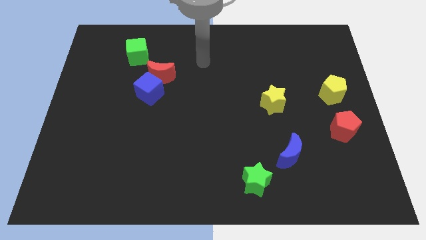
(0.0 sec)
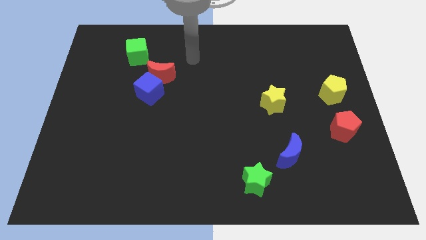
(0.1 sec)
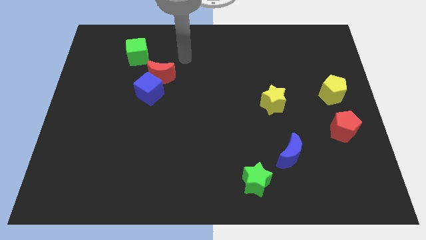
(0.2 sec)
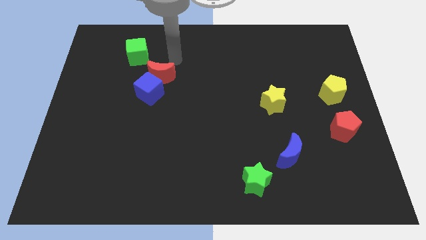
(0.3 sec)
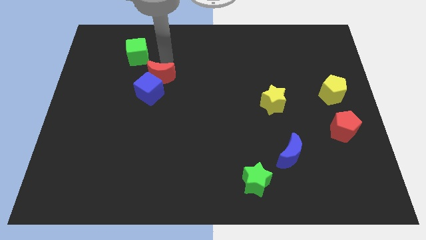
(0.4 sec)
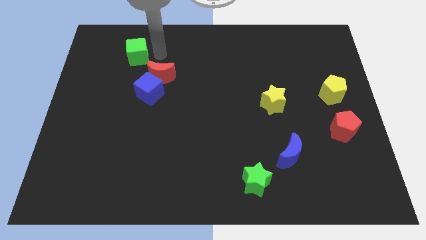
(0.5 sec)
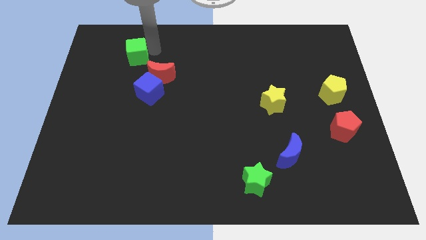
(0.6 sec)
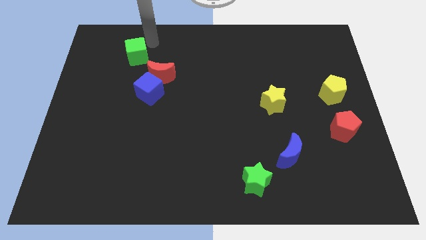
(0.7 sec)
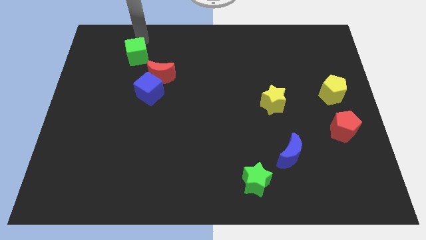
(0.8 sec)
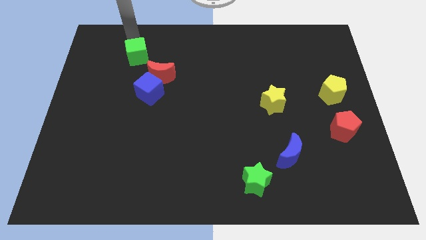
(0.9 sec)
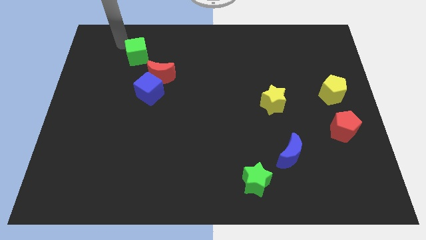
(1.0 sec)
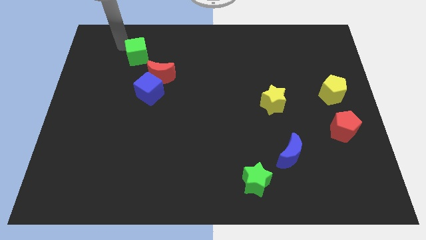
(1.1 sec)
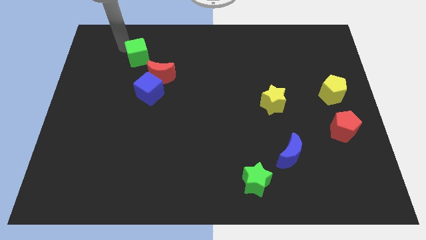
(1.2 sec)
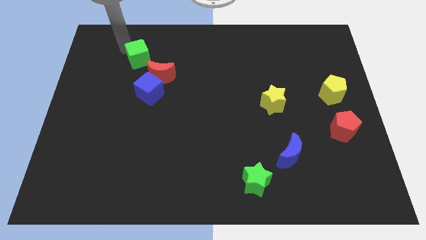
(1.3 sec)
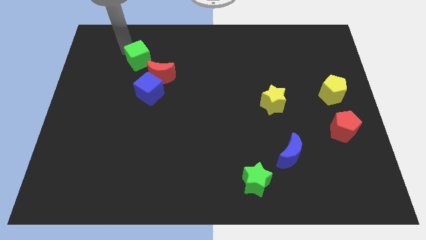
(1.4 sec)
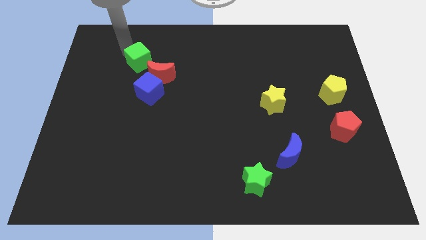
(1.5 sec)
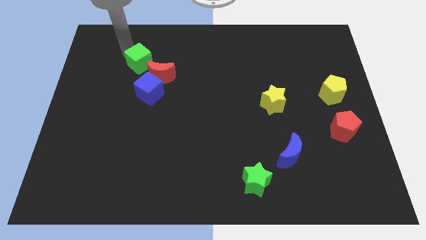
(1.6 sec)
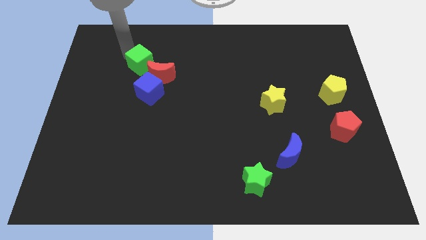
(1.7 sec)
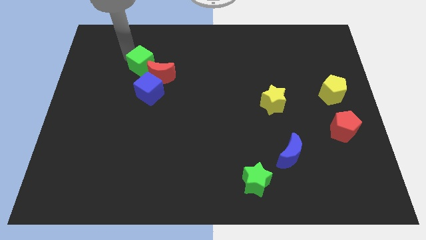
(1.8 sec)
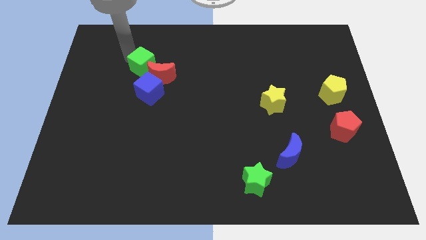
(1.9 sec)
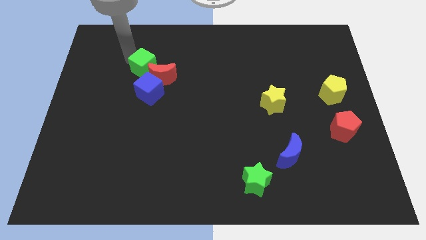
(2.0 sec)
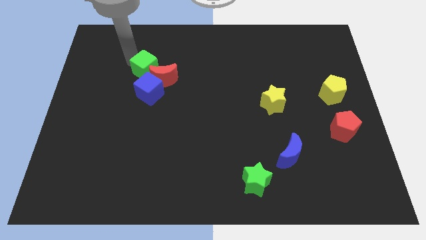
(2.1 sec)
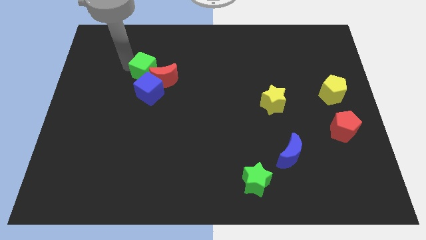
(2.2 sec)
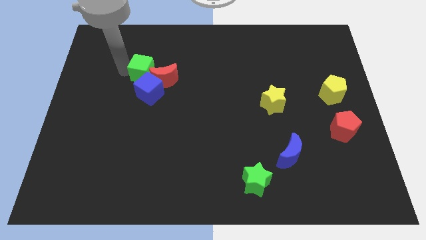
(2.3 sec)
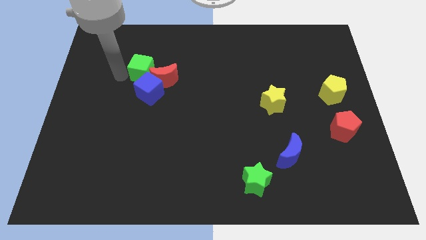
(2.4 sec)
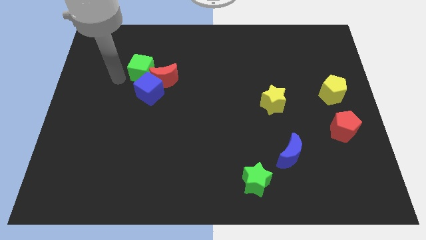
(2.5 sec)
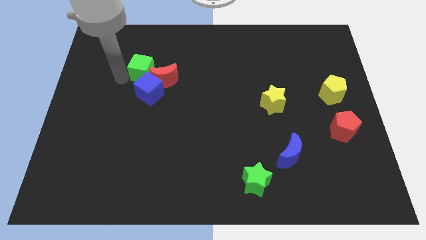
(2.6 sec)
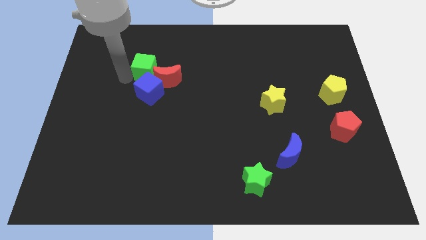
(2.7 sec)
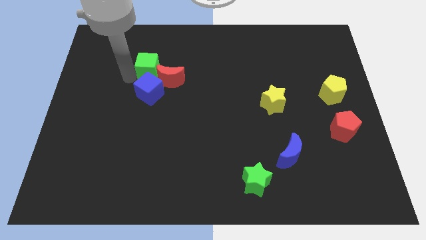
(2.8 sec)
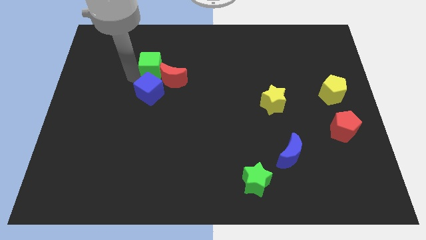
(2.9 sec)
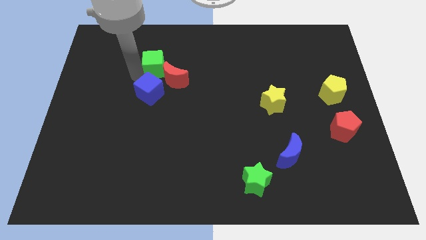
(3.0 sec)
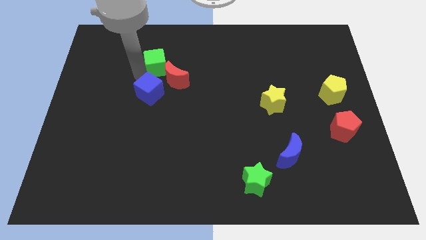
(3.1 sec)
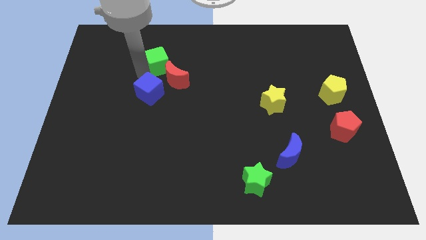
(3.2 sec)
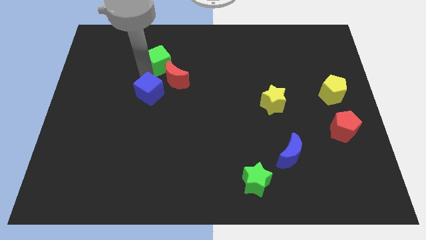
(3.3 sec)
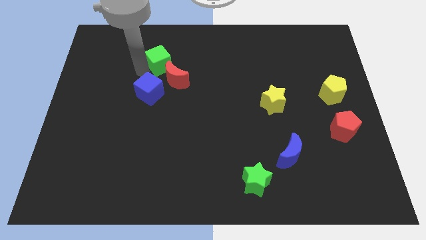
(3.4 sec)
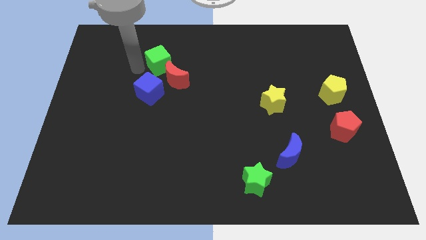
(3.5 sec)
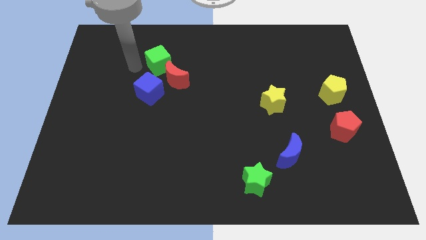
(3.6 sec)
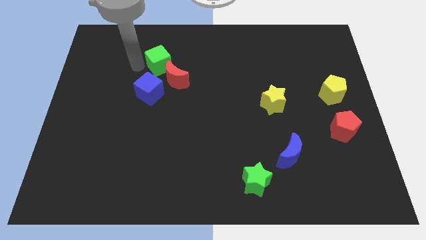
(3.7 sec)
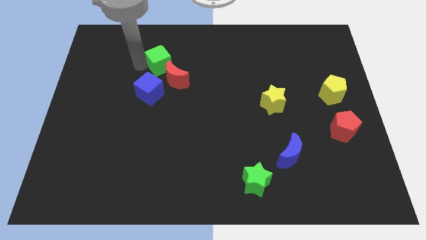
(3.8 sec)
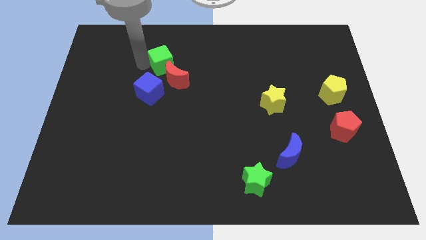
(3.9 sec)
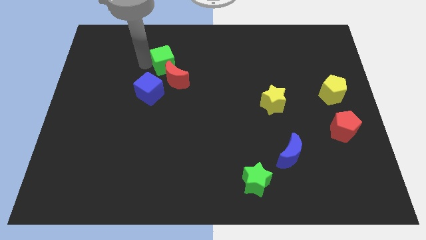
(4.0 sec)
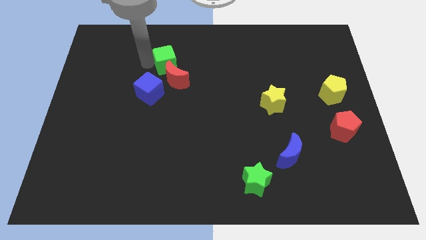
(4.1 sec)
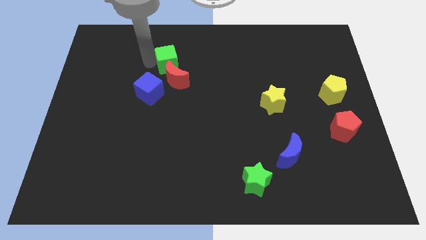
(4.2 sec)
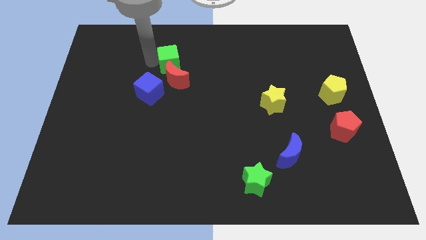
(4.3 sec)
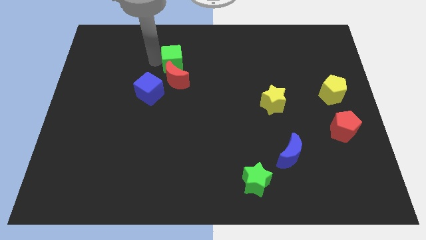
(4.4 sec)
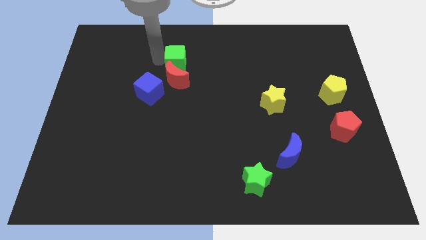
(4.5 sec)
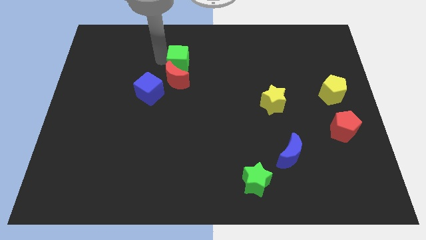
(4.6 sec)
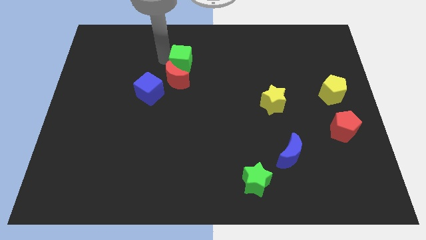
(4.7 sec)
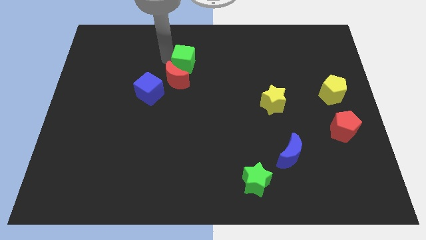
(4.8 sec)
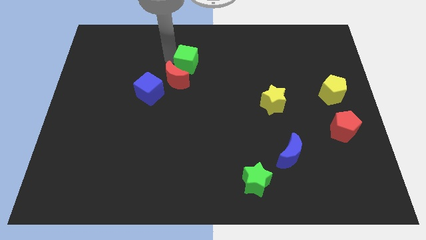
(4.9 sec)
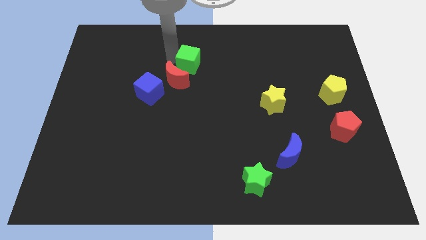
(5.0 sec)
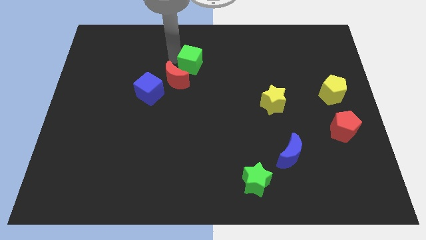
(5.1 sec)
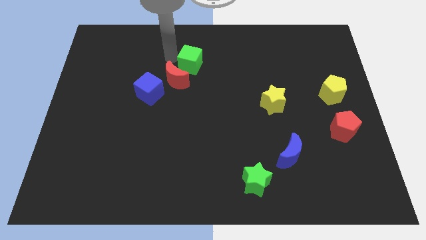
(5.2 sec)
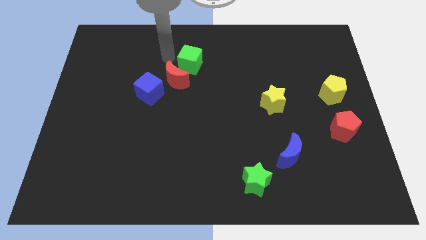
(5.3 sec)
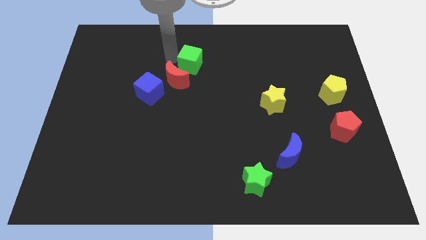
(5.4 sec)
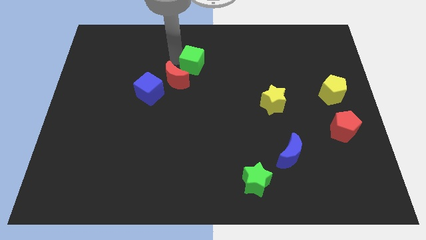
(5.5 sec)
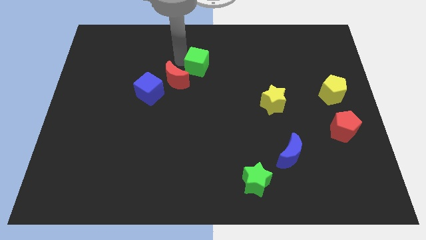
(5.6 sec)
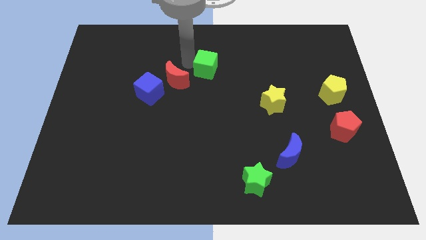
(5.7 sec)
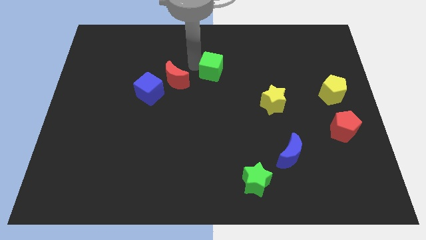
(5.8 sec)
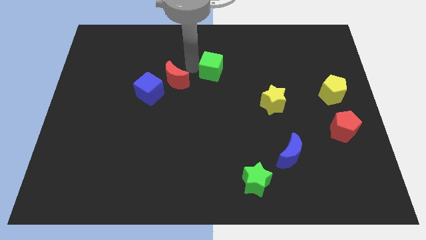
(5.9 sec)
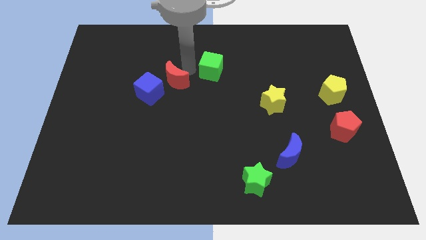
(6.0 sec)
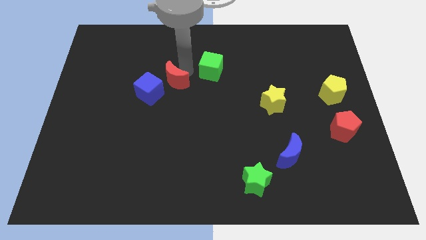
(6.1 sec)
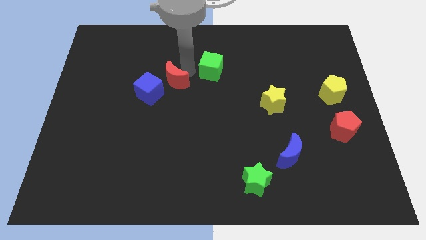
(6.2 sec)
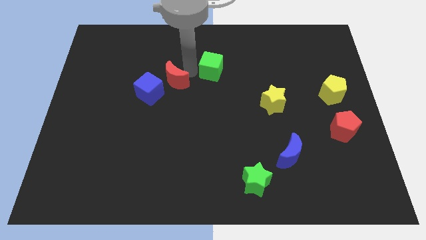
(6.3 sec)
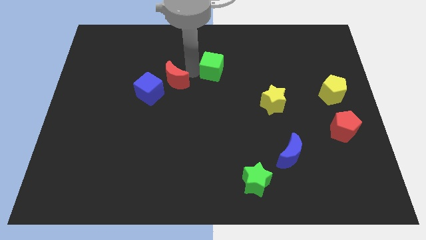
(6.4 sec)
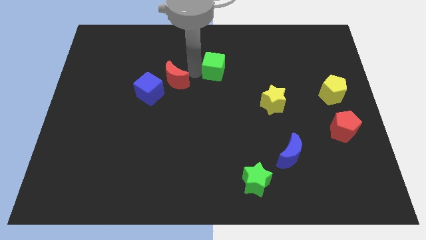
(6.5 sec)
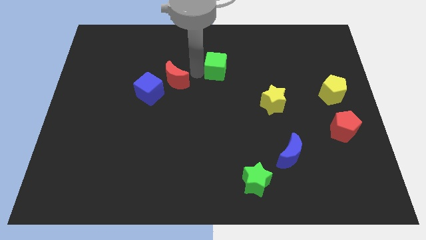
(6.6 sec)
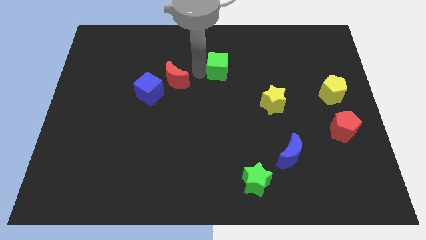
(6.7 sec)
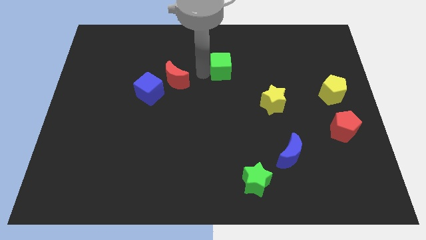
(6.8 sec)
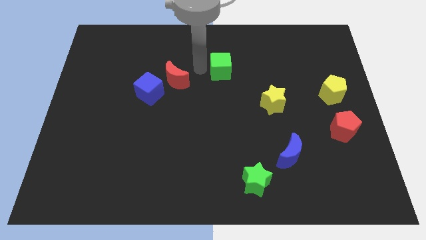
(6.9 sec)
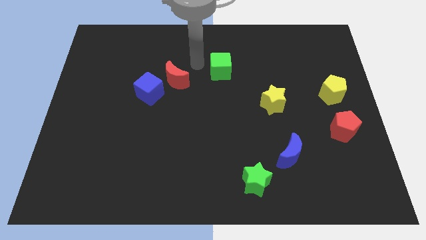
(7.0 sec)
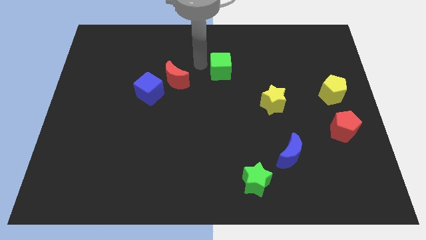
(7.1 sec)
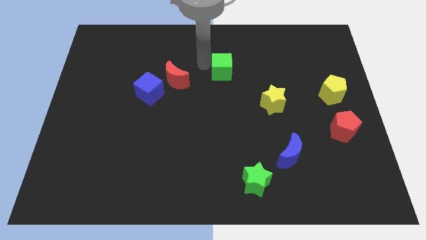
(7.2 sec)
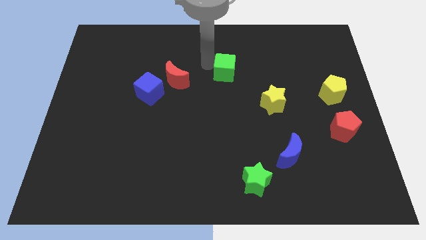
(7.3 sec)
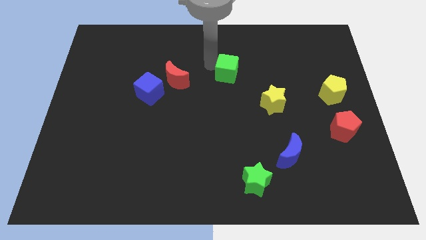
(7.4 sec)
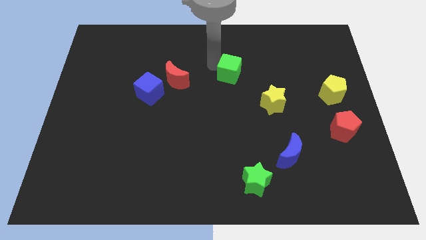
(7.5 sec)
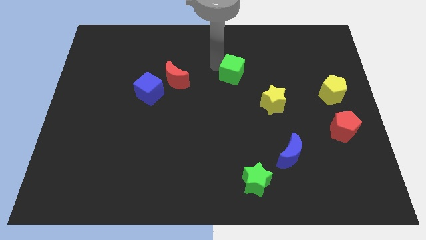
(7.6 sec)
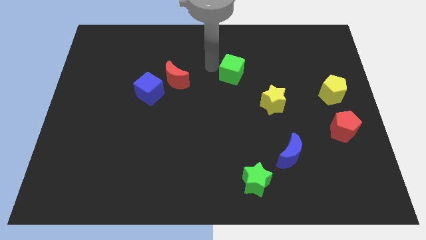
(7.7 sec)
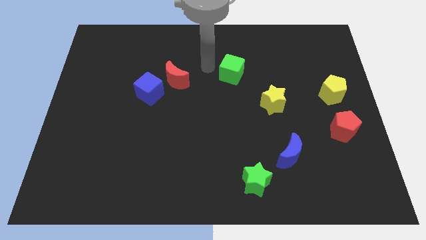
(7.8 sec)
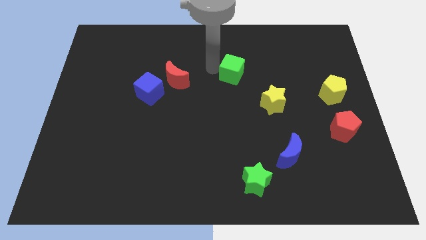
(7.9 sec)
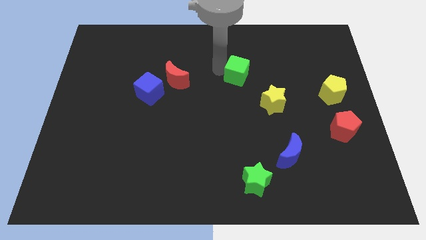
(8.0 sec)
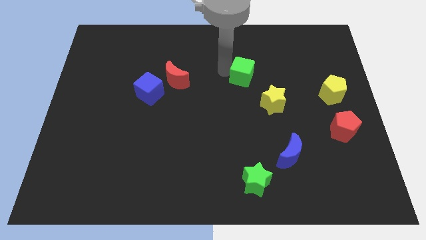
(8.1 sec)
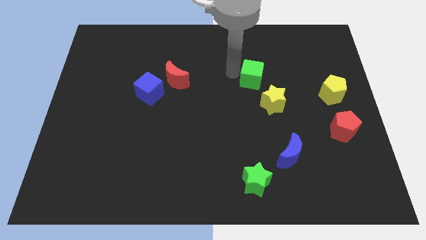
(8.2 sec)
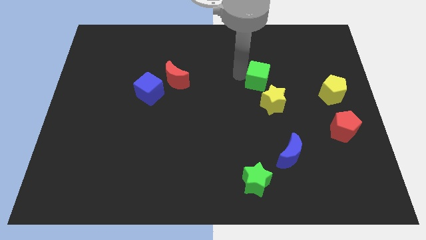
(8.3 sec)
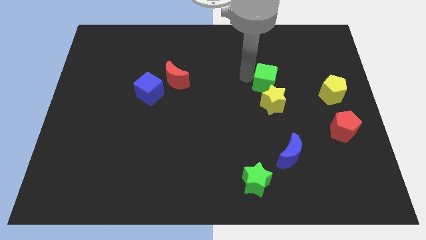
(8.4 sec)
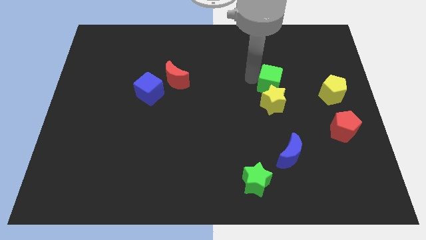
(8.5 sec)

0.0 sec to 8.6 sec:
move the green cube diagonally up and to the right of the yellow star
